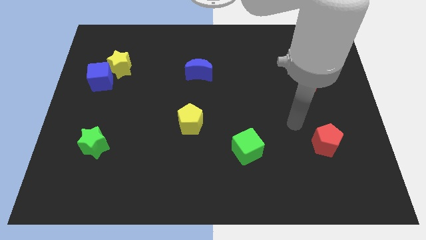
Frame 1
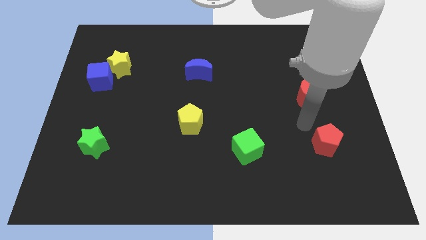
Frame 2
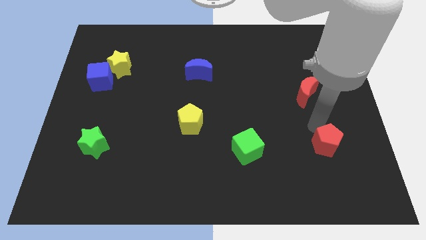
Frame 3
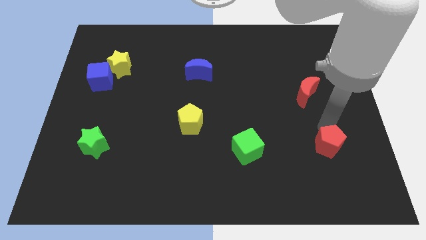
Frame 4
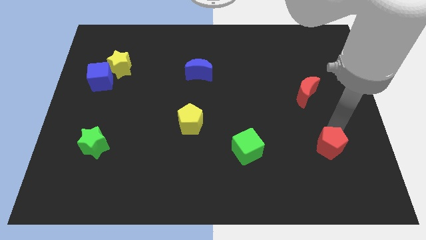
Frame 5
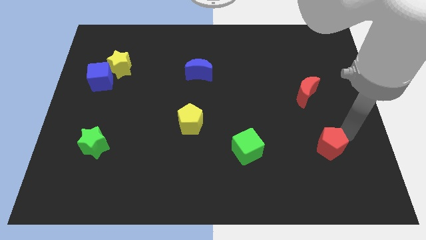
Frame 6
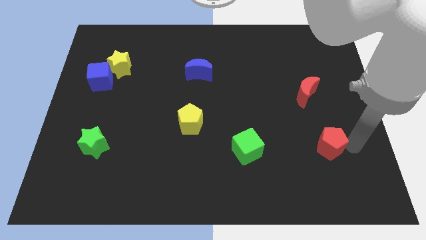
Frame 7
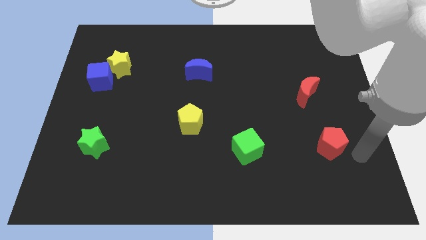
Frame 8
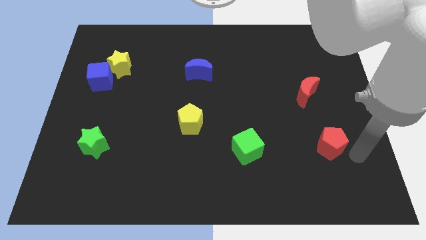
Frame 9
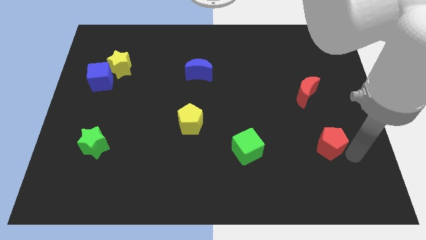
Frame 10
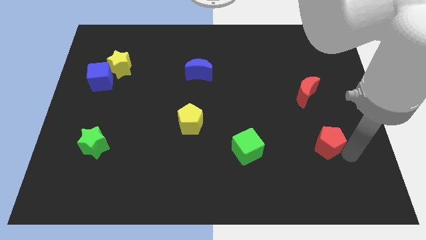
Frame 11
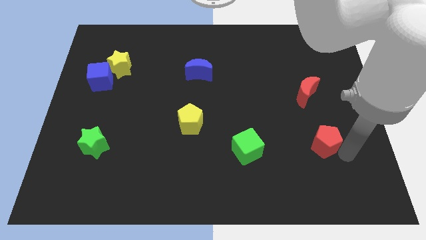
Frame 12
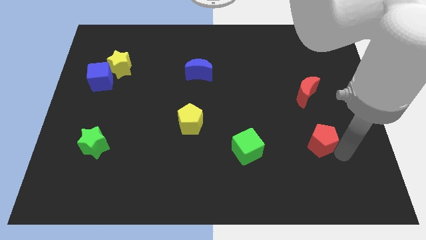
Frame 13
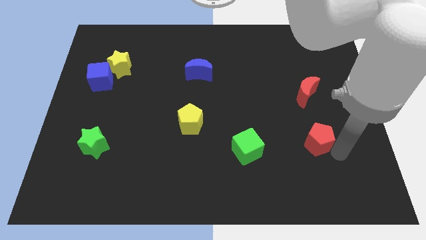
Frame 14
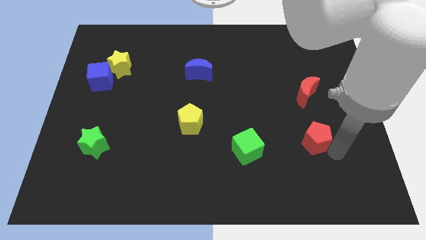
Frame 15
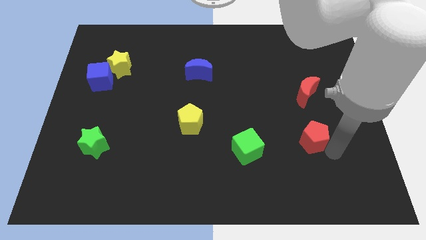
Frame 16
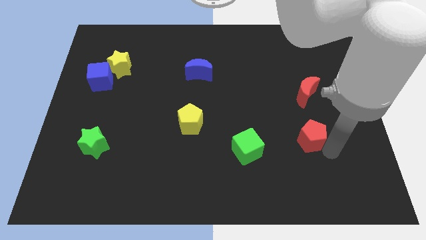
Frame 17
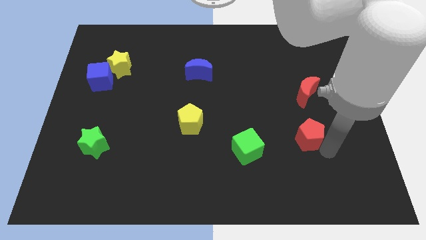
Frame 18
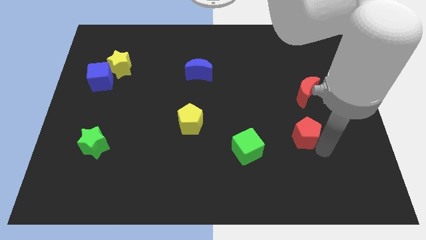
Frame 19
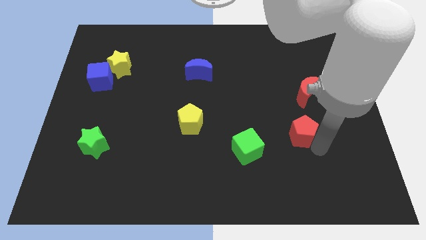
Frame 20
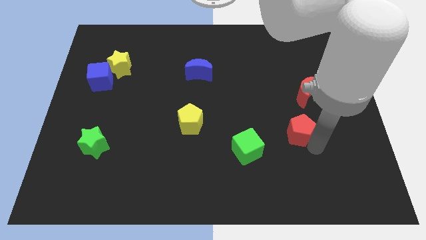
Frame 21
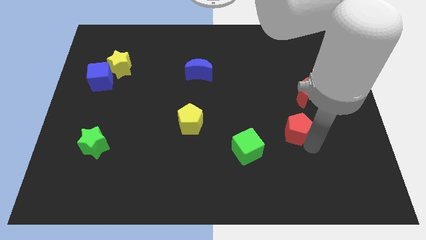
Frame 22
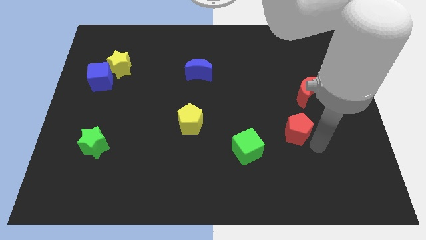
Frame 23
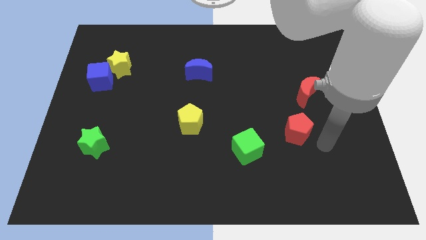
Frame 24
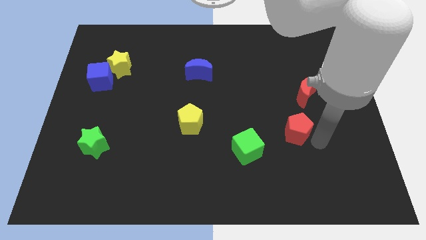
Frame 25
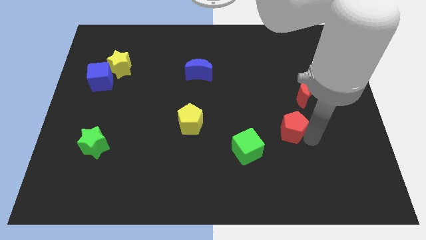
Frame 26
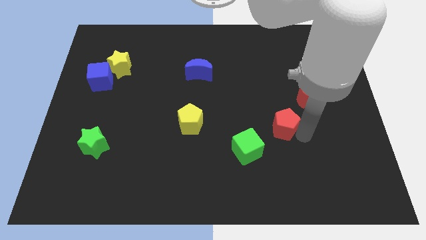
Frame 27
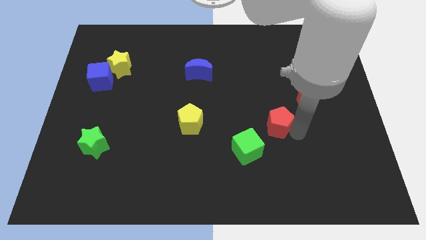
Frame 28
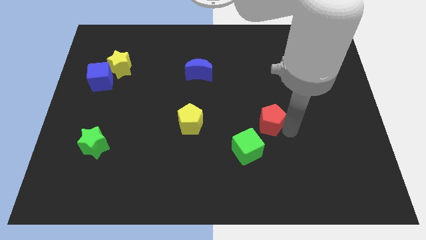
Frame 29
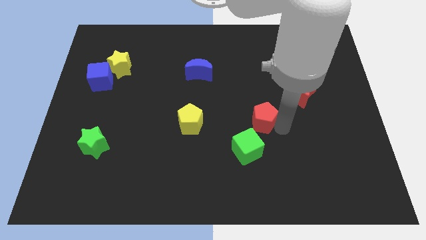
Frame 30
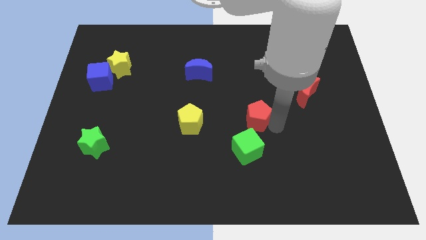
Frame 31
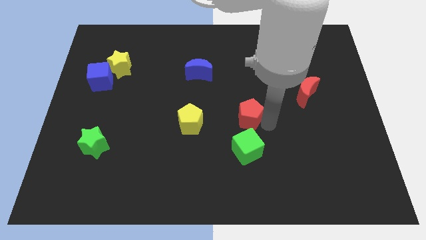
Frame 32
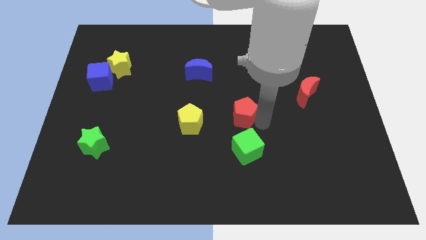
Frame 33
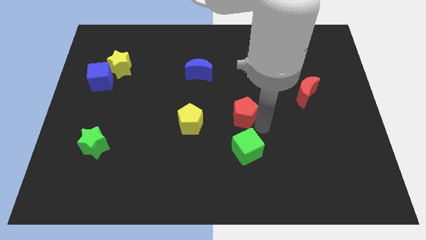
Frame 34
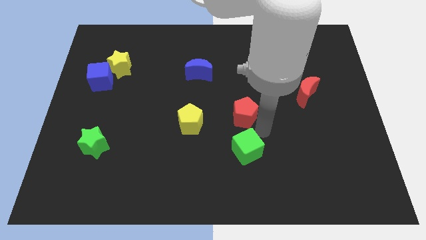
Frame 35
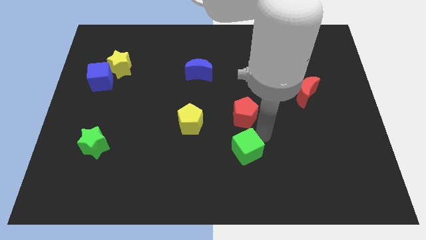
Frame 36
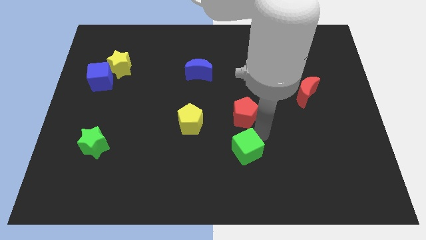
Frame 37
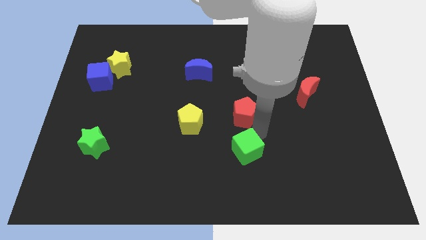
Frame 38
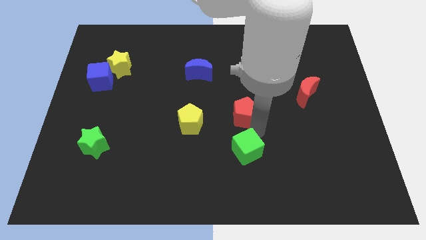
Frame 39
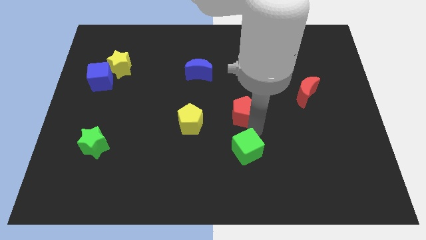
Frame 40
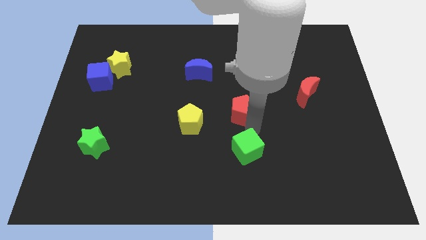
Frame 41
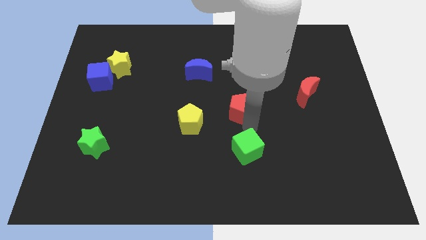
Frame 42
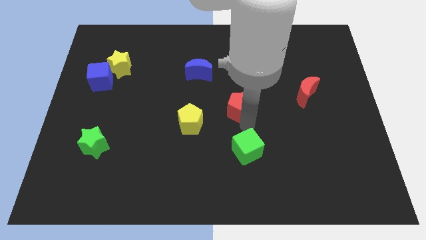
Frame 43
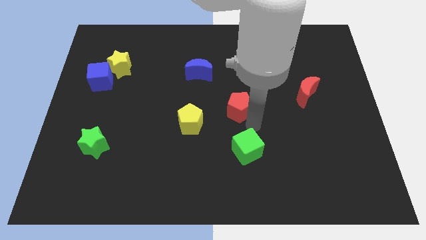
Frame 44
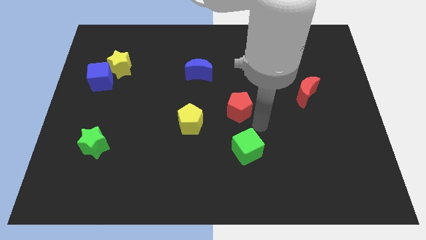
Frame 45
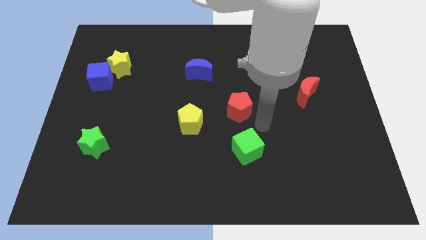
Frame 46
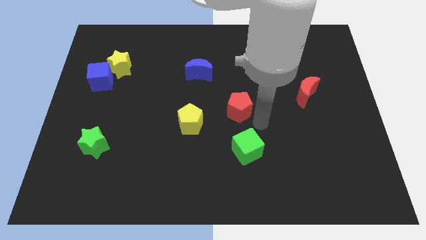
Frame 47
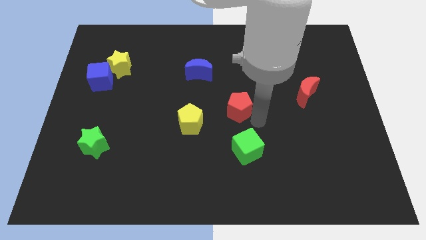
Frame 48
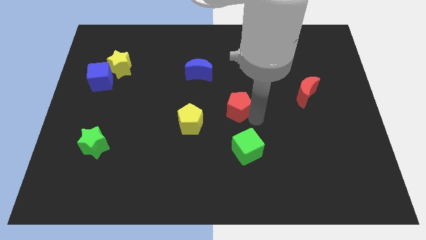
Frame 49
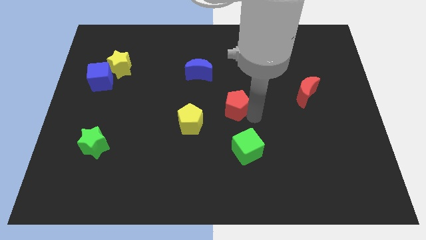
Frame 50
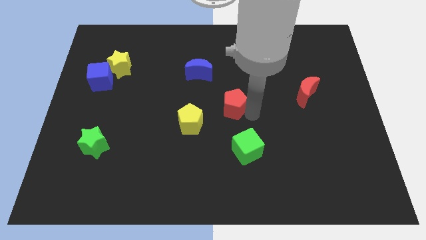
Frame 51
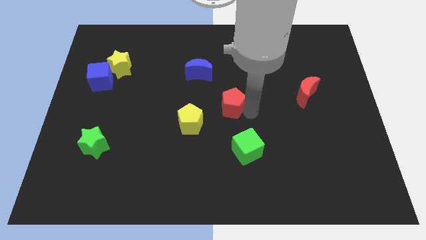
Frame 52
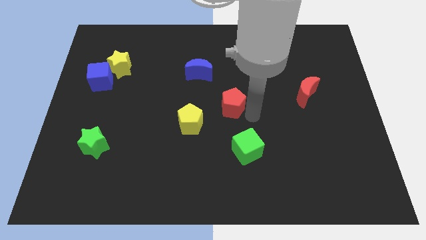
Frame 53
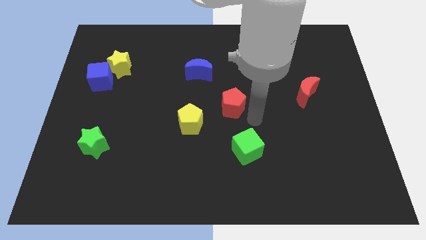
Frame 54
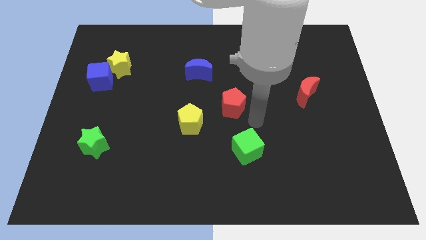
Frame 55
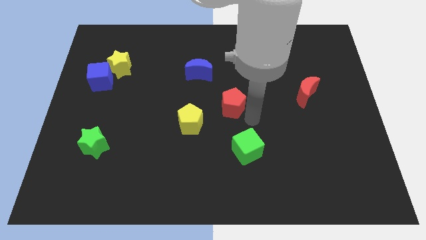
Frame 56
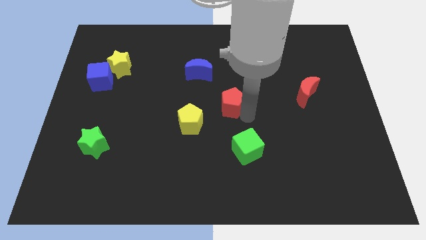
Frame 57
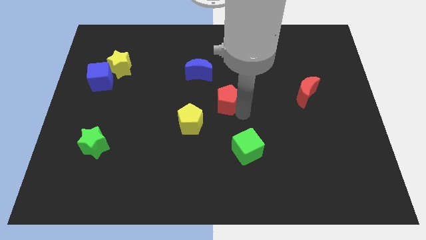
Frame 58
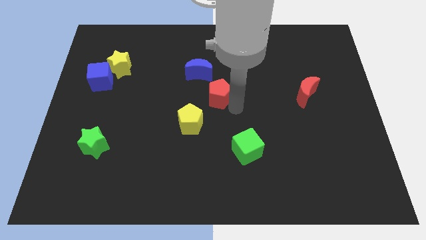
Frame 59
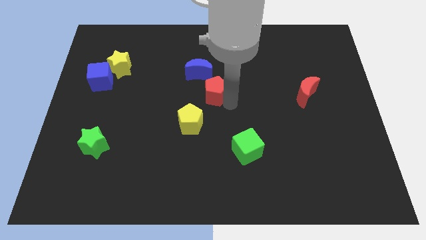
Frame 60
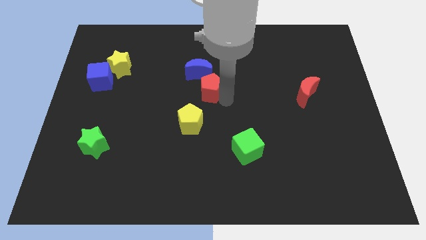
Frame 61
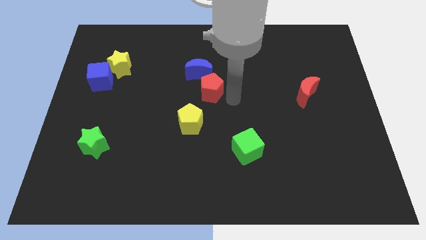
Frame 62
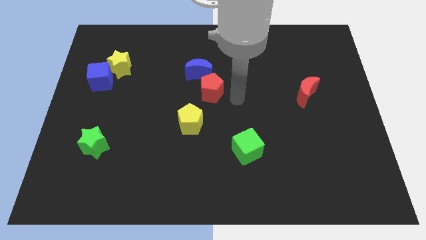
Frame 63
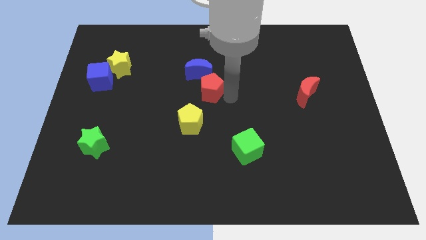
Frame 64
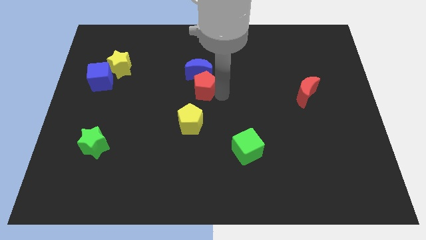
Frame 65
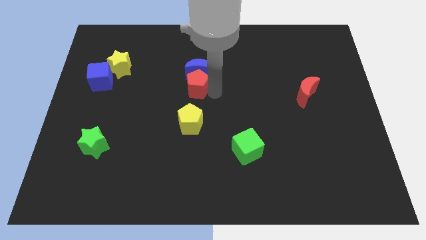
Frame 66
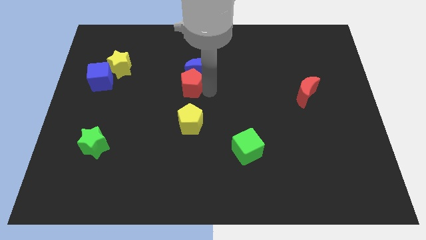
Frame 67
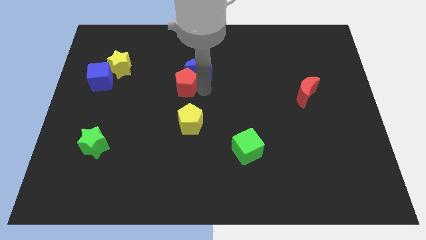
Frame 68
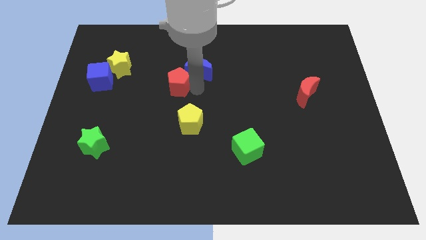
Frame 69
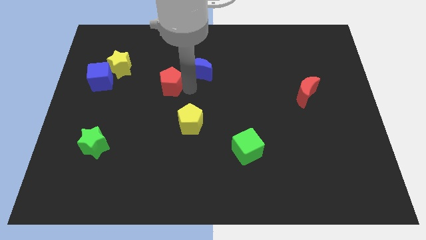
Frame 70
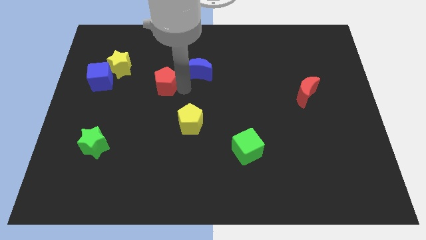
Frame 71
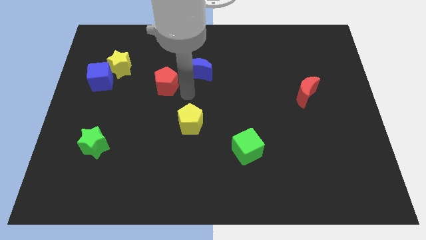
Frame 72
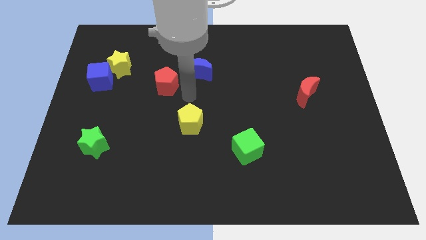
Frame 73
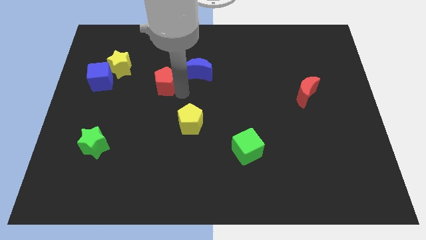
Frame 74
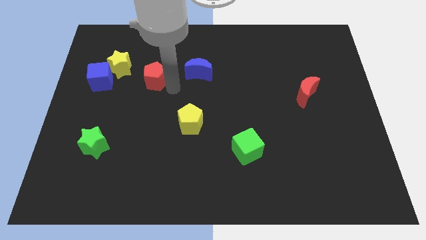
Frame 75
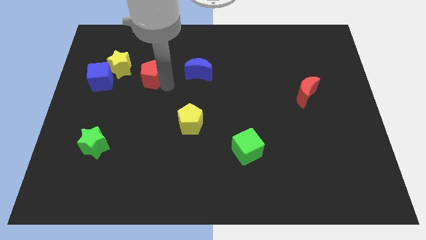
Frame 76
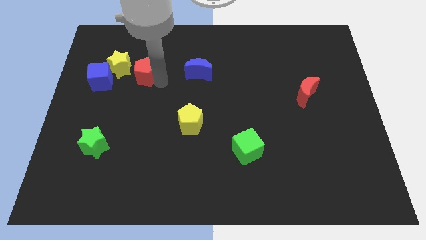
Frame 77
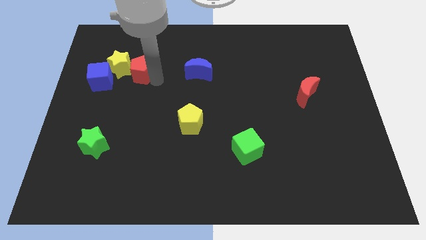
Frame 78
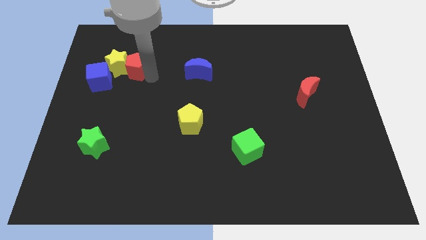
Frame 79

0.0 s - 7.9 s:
push the red pentagon next to the yellow star
